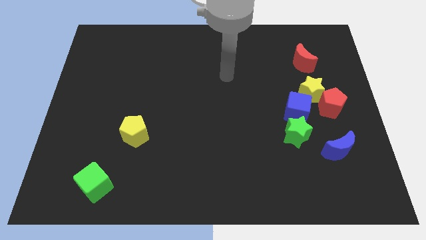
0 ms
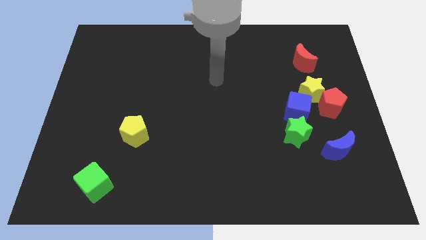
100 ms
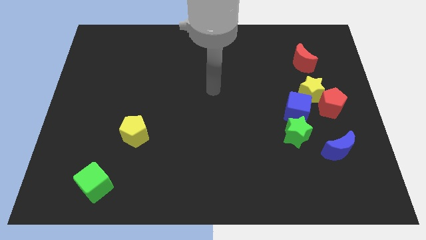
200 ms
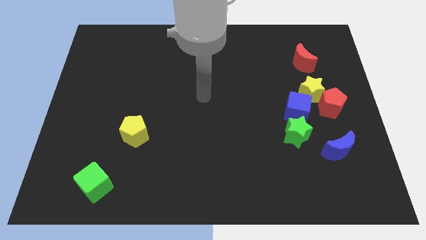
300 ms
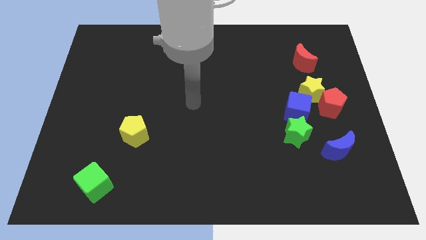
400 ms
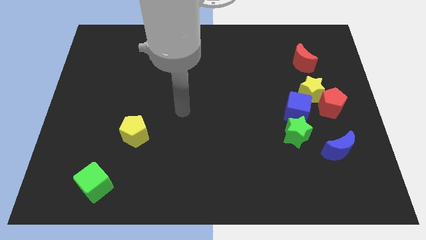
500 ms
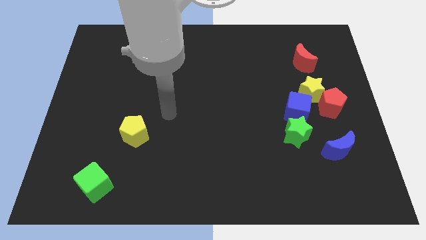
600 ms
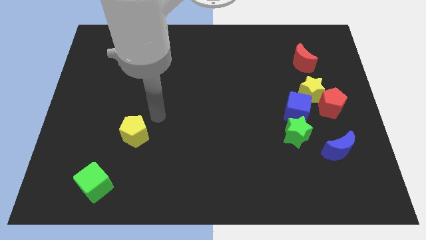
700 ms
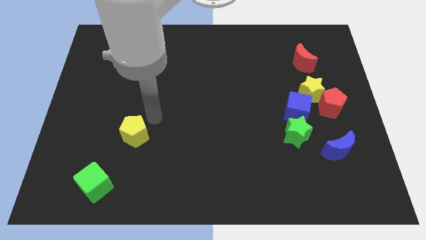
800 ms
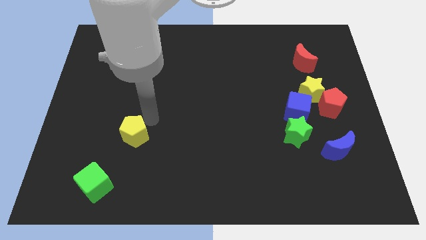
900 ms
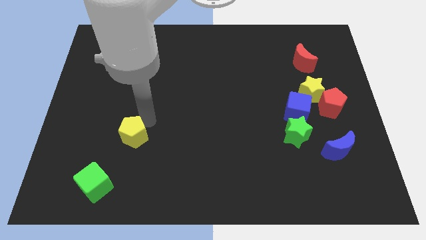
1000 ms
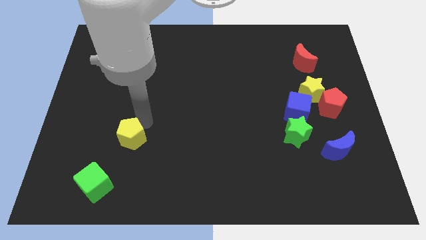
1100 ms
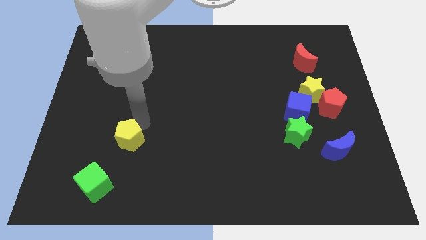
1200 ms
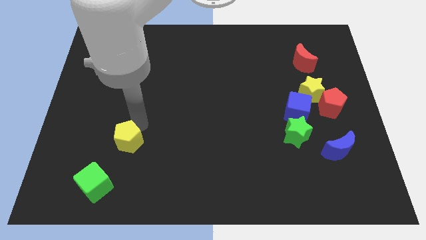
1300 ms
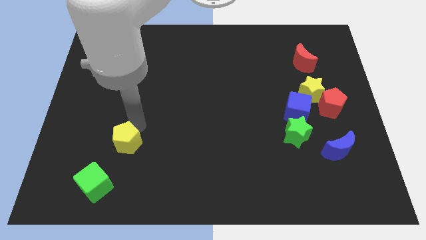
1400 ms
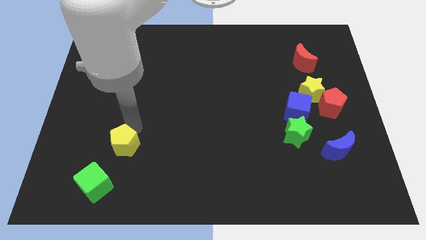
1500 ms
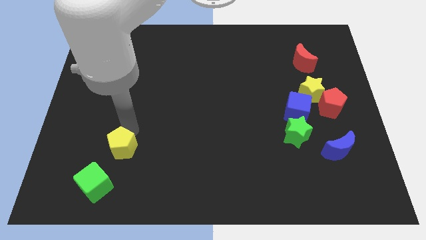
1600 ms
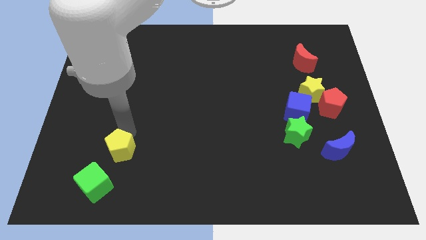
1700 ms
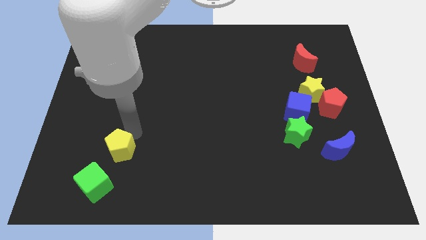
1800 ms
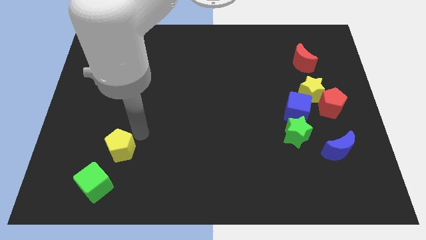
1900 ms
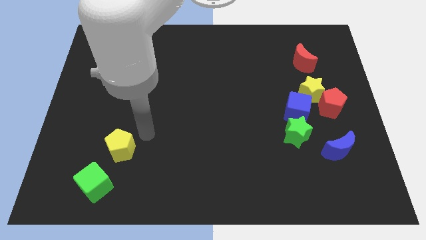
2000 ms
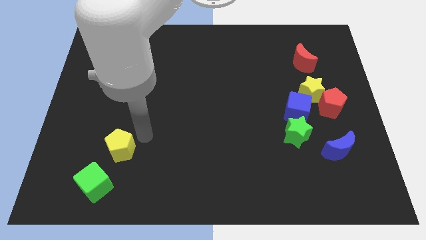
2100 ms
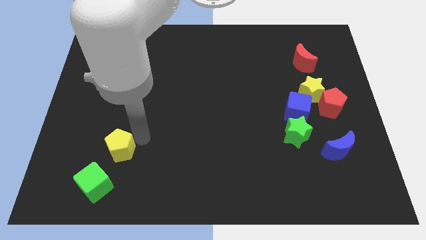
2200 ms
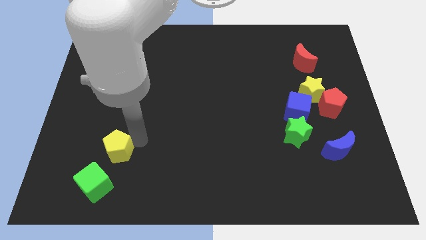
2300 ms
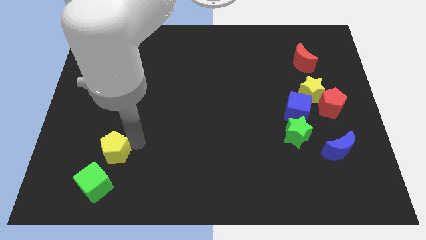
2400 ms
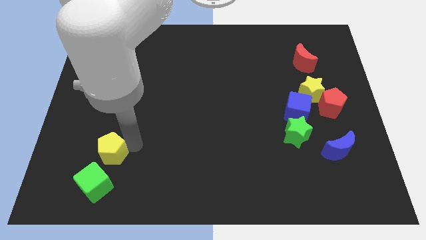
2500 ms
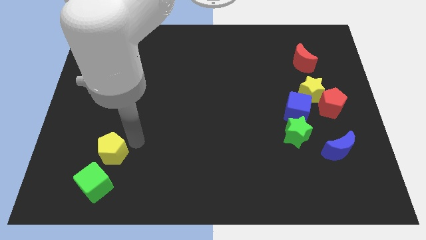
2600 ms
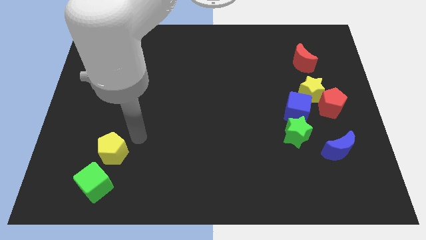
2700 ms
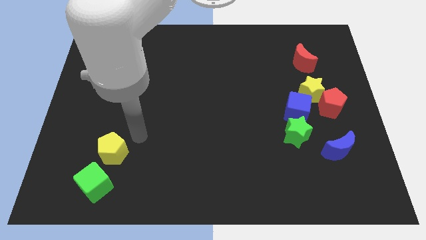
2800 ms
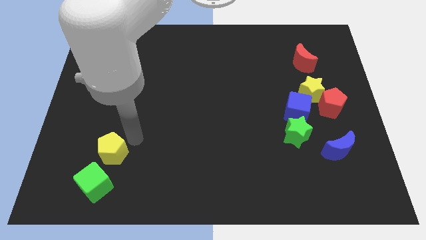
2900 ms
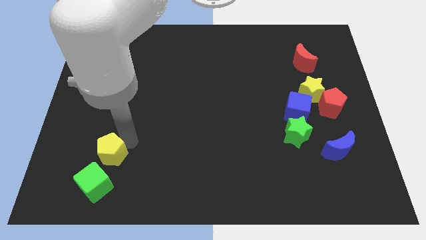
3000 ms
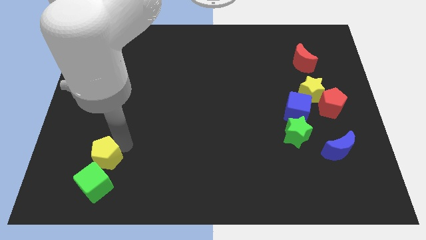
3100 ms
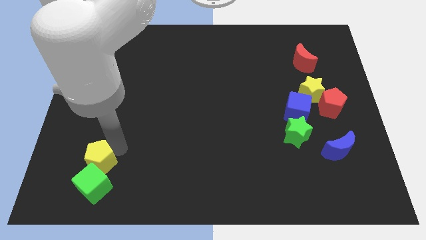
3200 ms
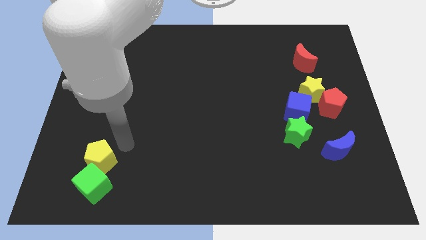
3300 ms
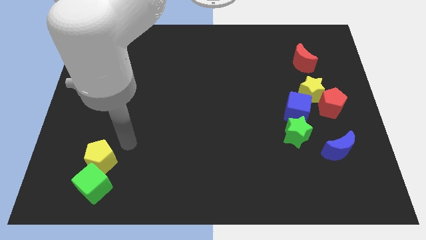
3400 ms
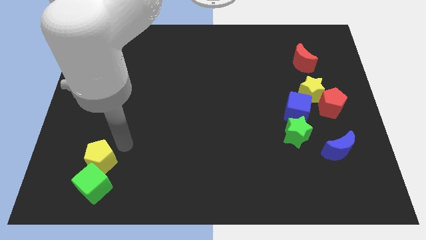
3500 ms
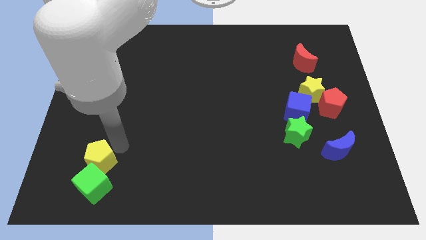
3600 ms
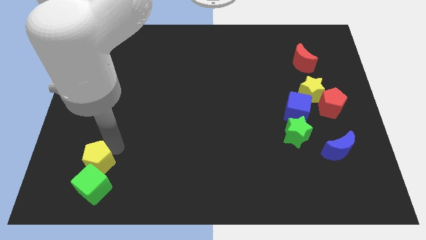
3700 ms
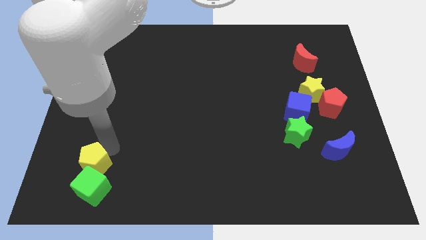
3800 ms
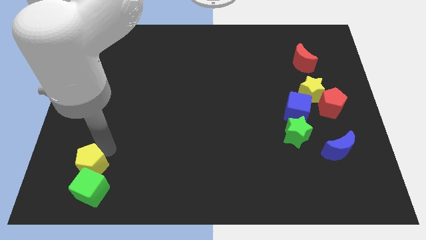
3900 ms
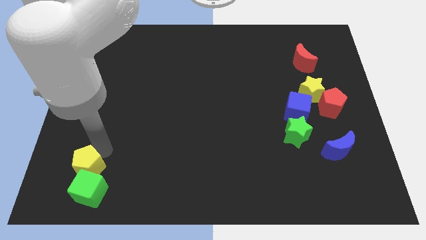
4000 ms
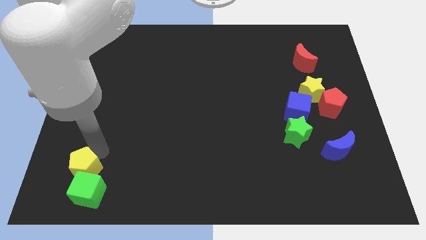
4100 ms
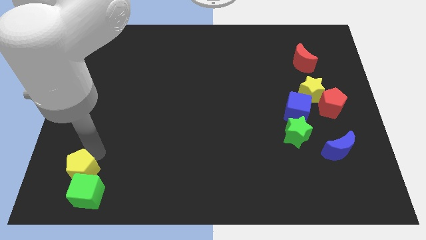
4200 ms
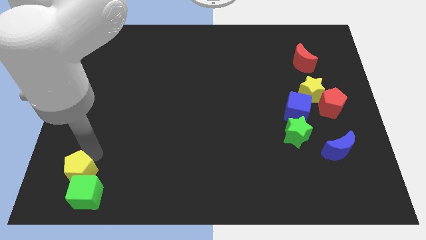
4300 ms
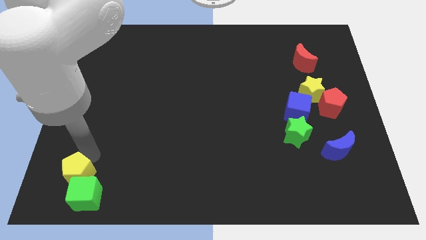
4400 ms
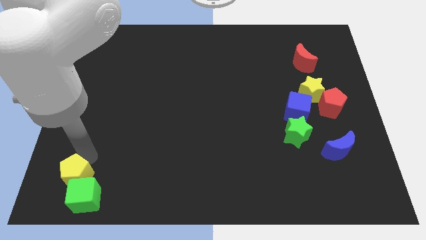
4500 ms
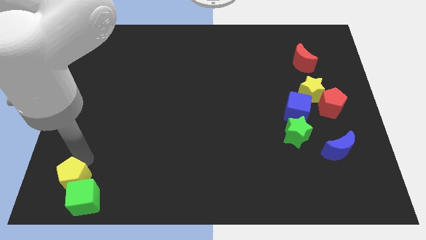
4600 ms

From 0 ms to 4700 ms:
move the yellow pentagon to the lower left corner

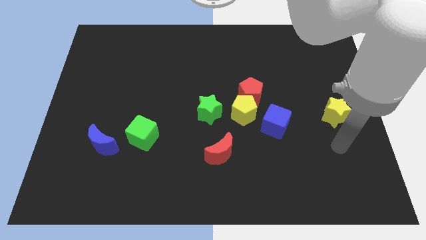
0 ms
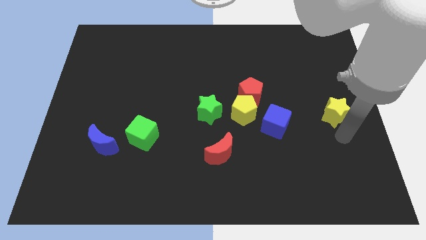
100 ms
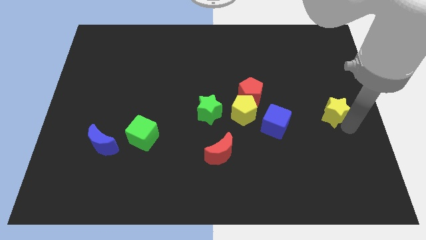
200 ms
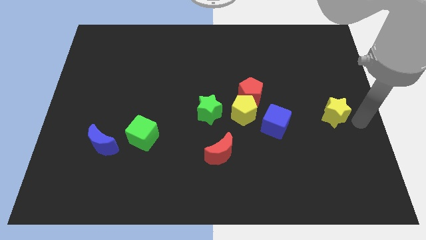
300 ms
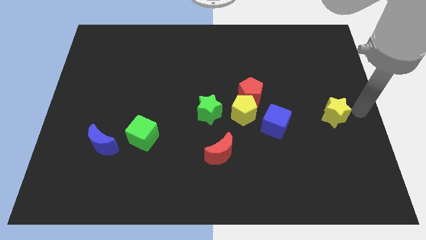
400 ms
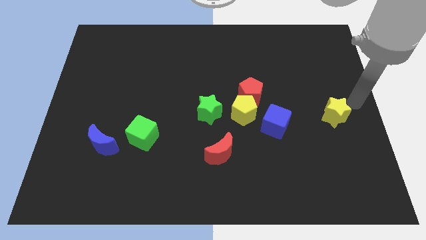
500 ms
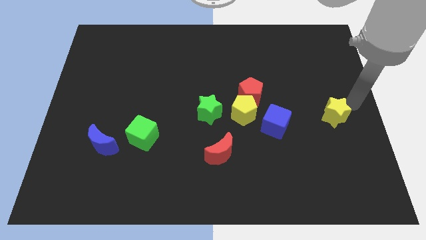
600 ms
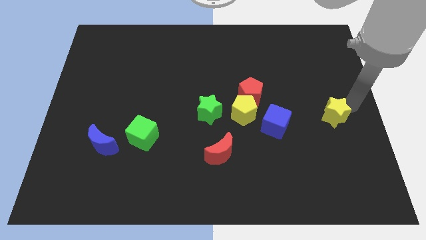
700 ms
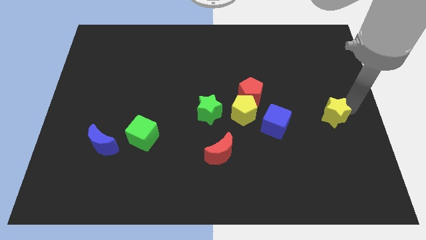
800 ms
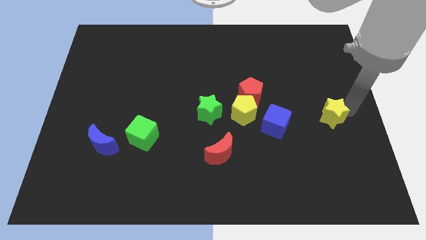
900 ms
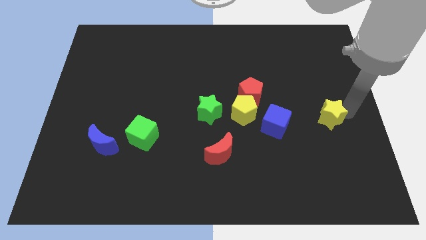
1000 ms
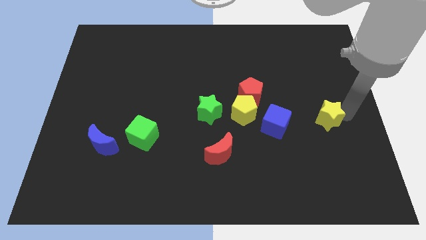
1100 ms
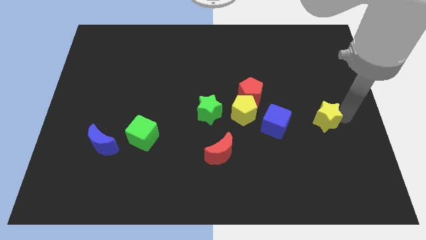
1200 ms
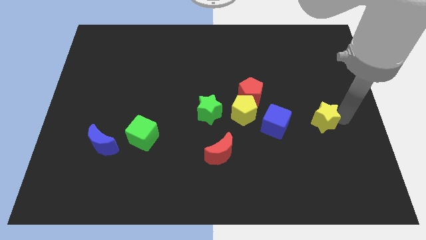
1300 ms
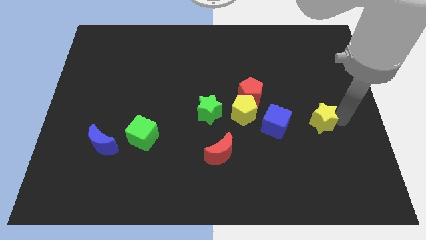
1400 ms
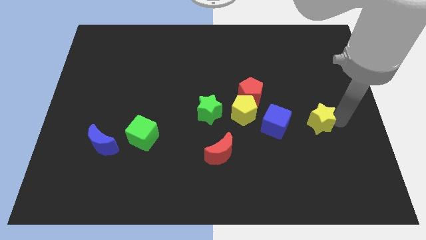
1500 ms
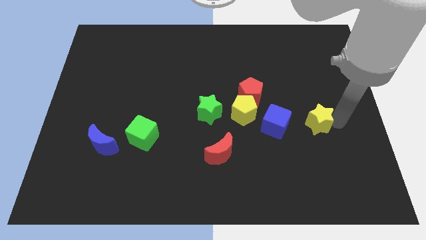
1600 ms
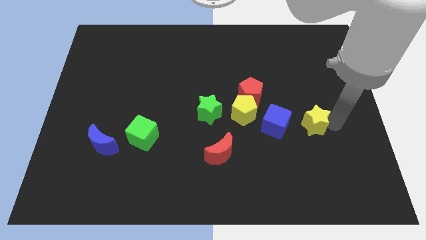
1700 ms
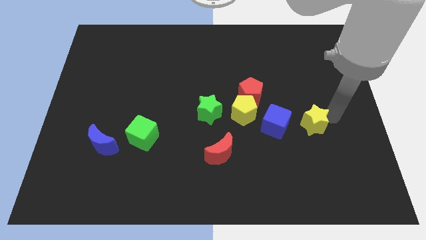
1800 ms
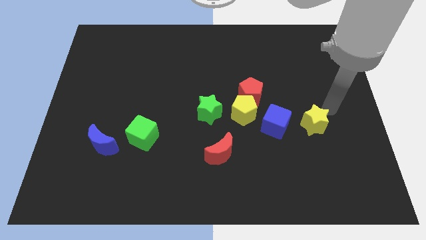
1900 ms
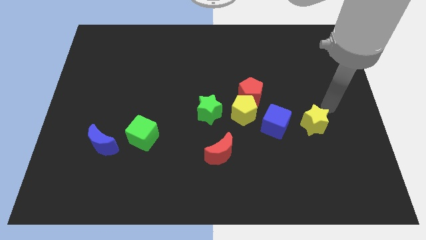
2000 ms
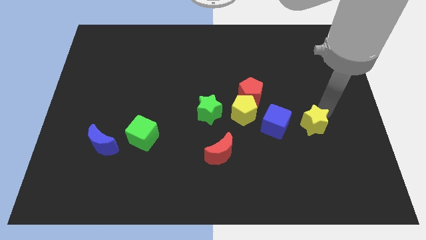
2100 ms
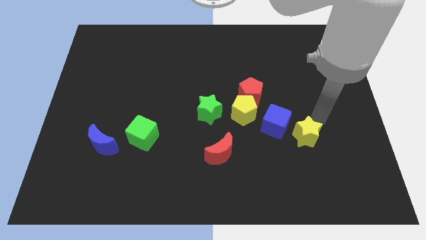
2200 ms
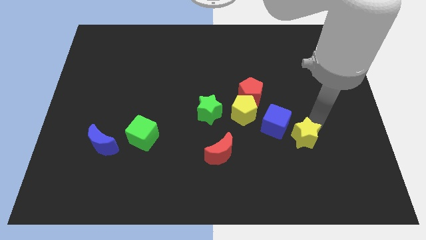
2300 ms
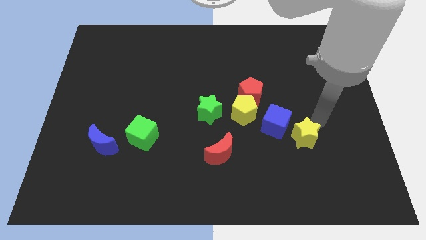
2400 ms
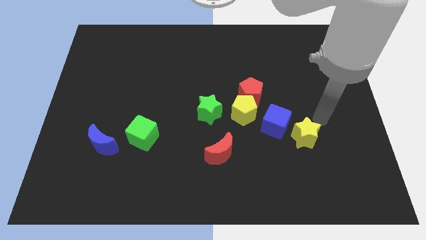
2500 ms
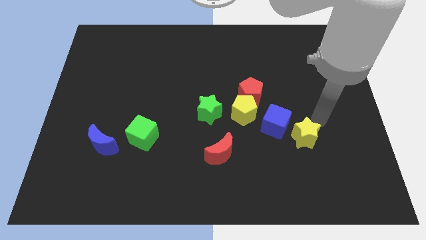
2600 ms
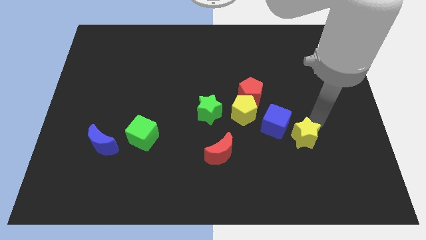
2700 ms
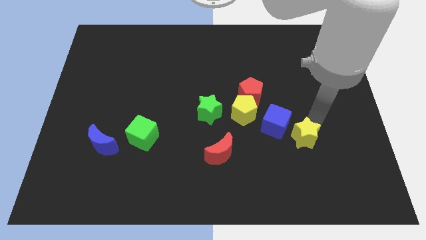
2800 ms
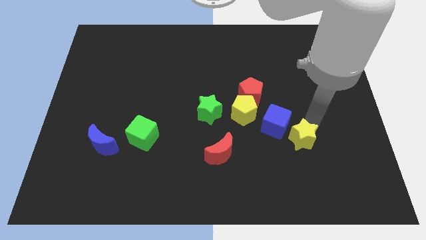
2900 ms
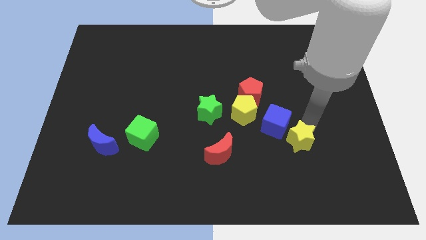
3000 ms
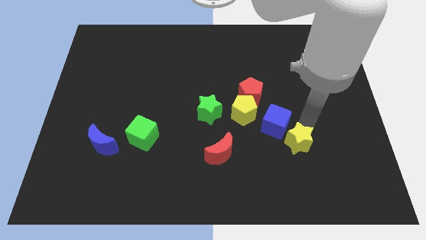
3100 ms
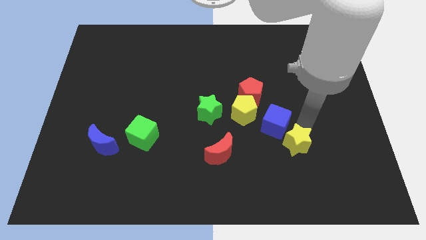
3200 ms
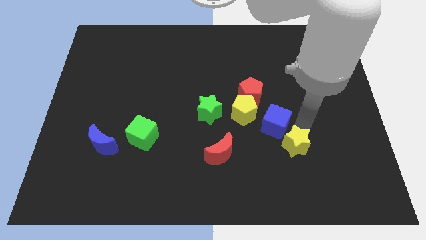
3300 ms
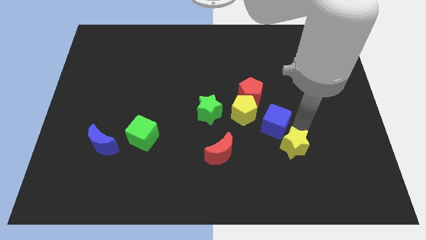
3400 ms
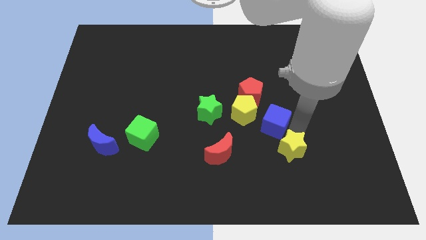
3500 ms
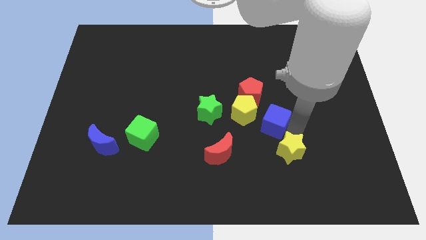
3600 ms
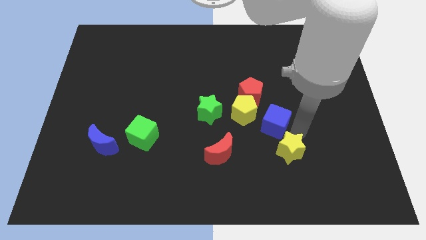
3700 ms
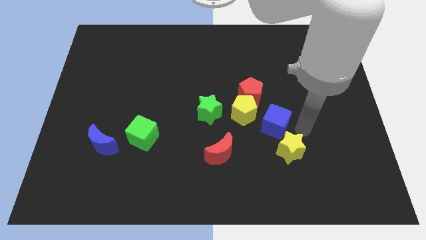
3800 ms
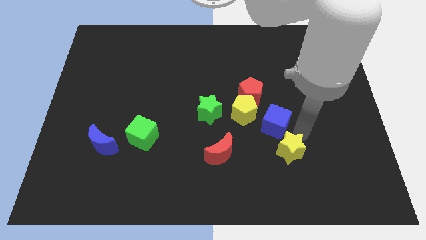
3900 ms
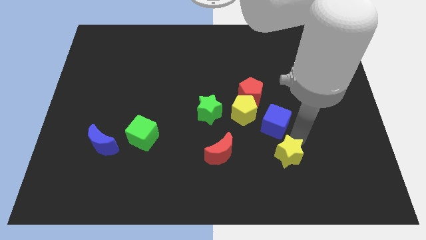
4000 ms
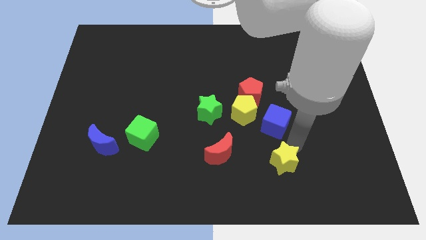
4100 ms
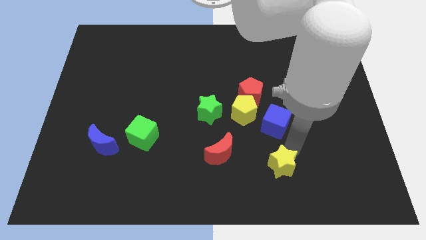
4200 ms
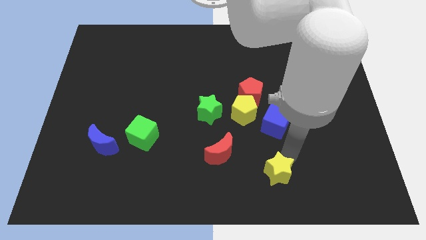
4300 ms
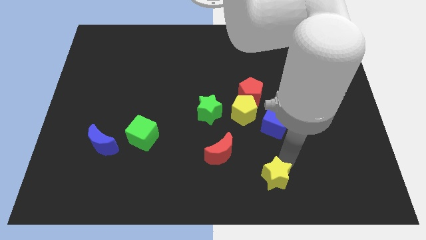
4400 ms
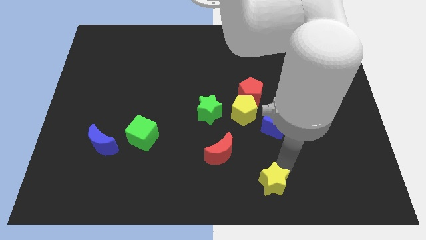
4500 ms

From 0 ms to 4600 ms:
push the yellow star to the bottom side
